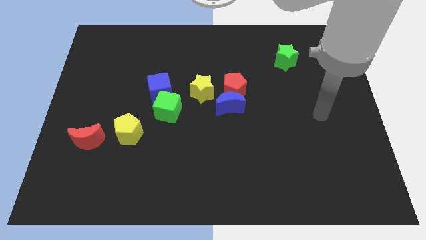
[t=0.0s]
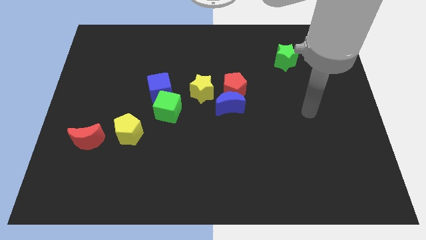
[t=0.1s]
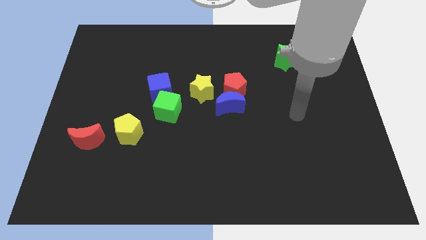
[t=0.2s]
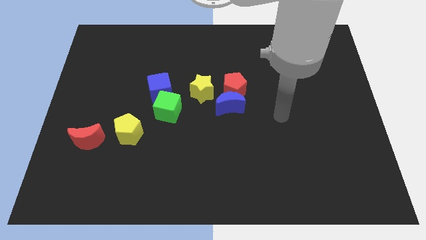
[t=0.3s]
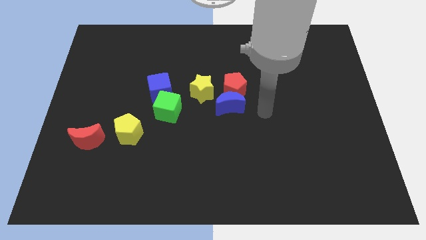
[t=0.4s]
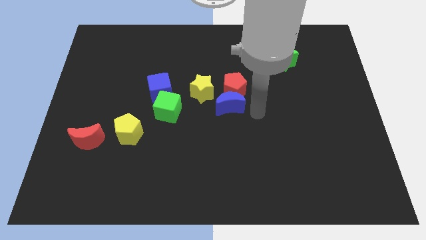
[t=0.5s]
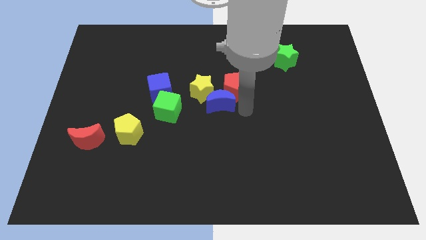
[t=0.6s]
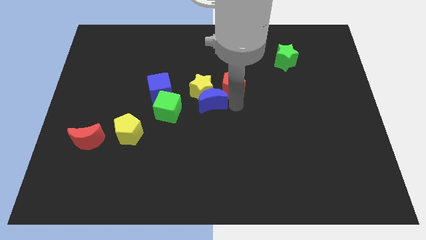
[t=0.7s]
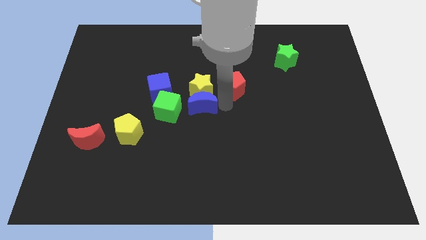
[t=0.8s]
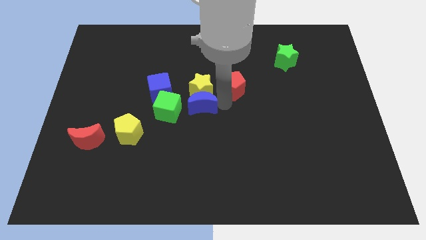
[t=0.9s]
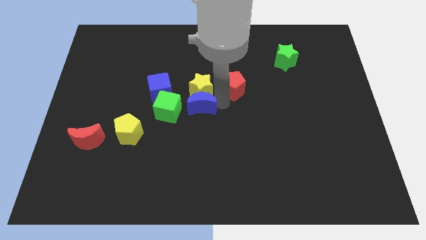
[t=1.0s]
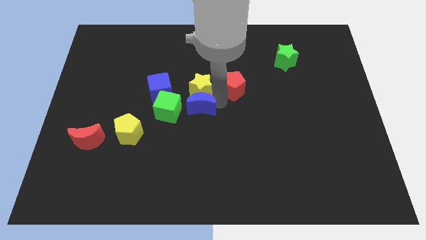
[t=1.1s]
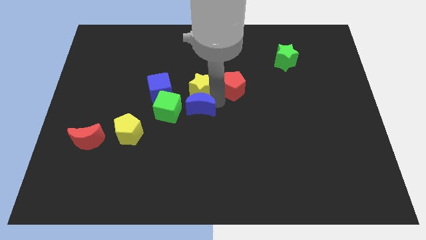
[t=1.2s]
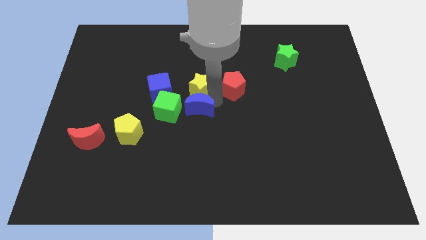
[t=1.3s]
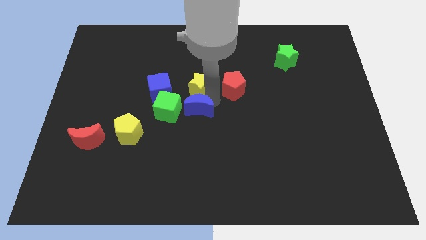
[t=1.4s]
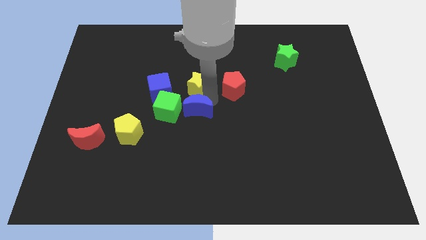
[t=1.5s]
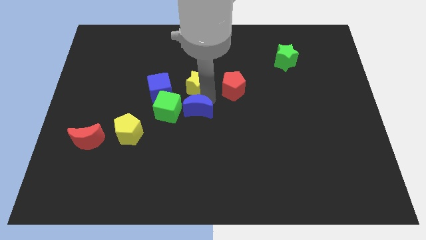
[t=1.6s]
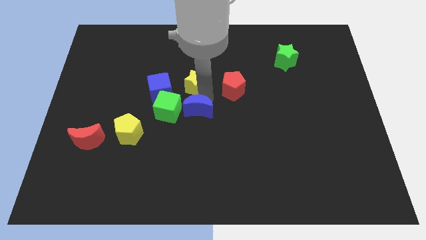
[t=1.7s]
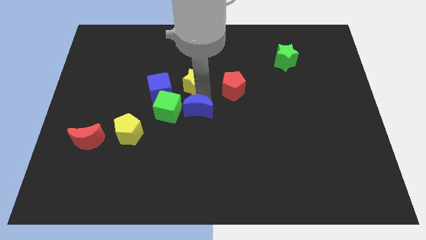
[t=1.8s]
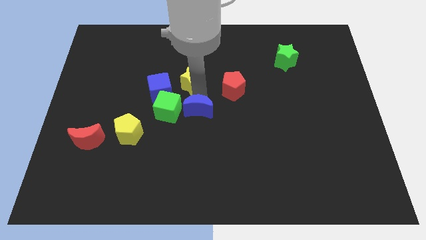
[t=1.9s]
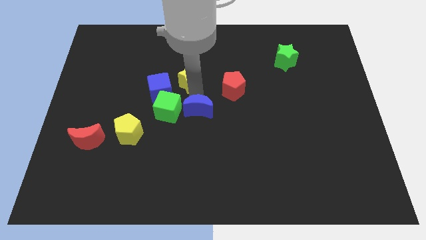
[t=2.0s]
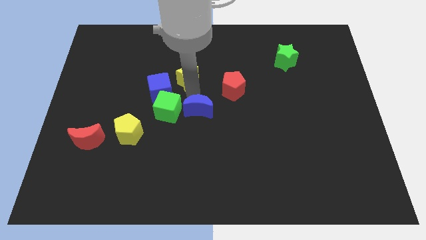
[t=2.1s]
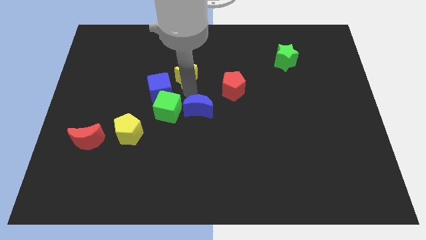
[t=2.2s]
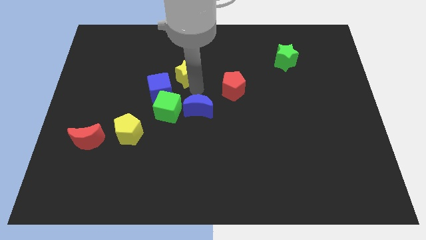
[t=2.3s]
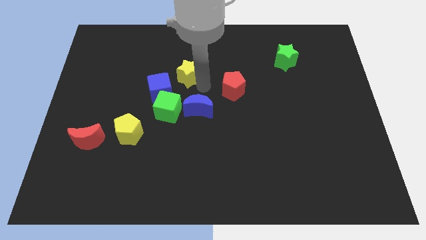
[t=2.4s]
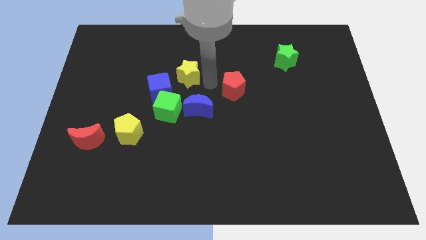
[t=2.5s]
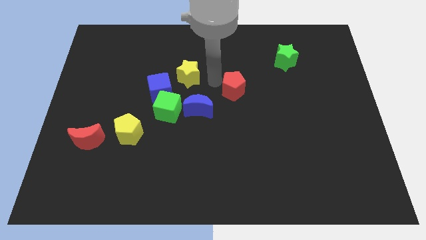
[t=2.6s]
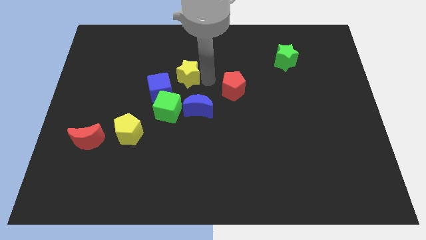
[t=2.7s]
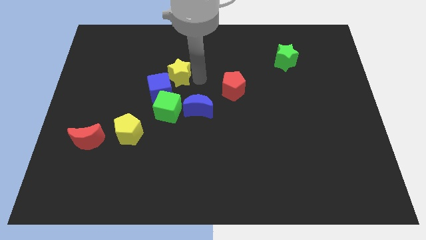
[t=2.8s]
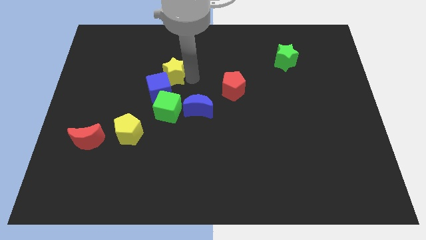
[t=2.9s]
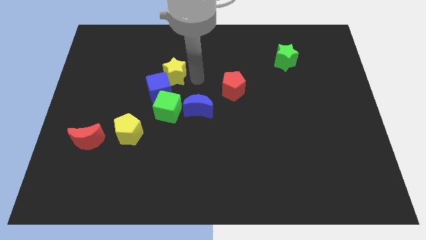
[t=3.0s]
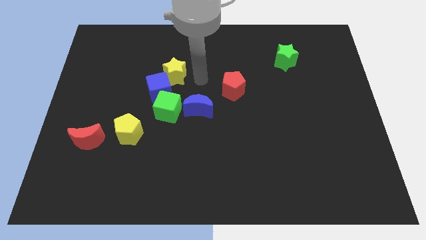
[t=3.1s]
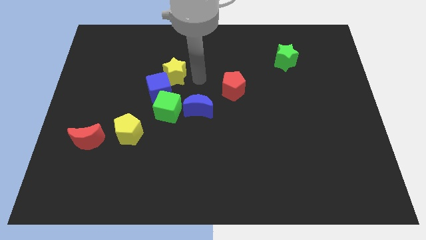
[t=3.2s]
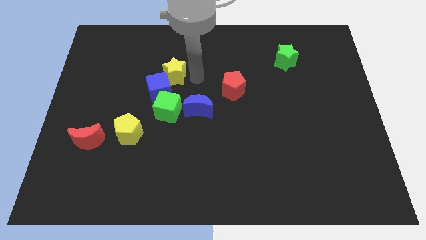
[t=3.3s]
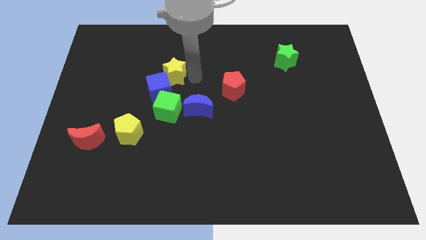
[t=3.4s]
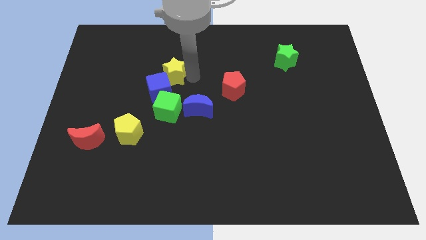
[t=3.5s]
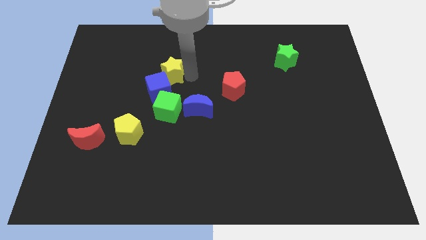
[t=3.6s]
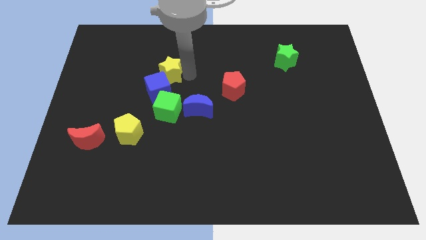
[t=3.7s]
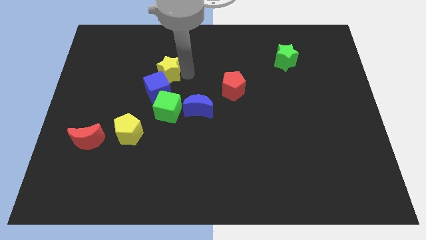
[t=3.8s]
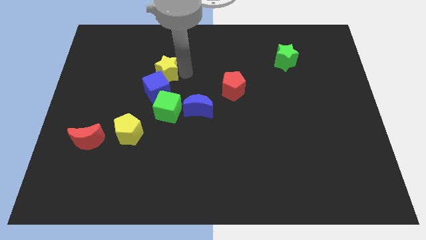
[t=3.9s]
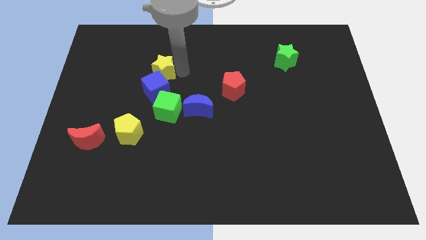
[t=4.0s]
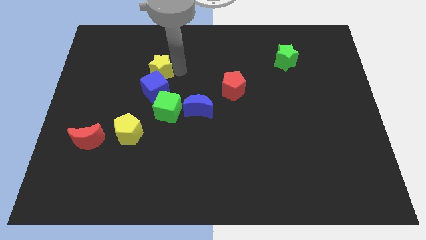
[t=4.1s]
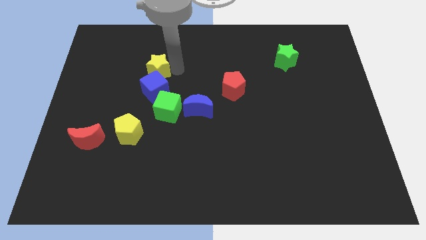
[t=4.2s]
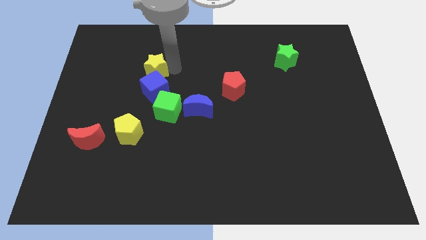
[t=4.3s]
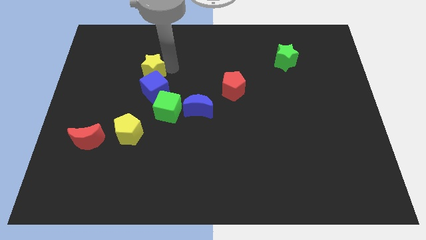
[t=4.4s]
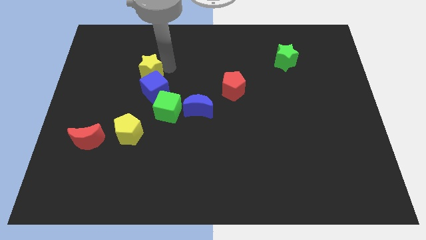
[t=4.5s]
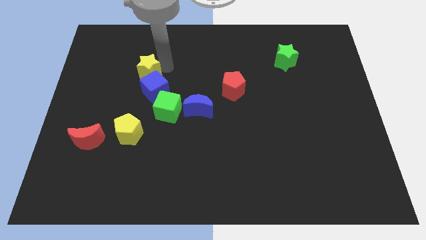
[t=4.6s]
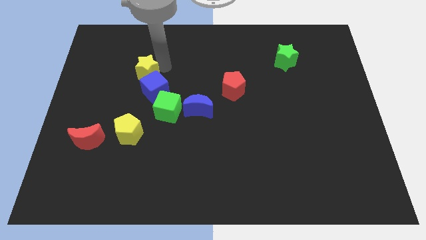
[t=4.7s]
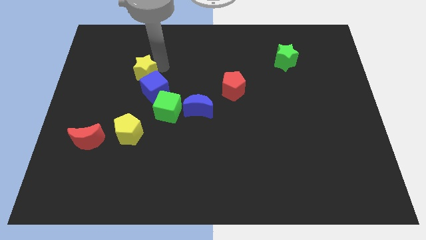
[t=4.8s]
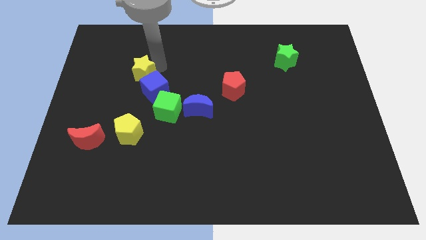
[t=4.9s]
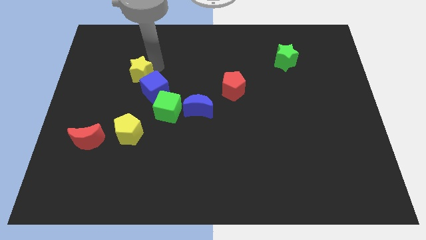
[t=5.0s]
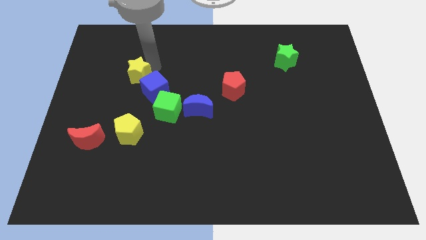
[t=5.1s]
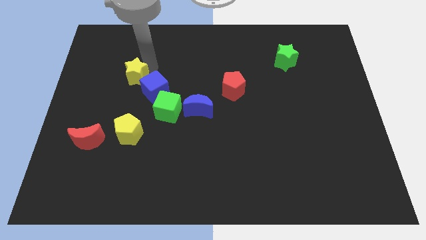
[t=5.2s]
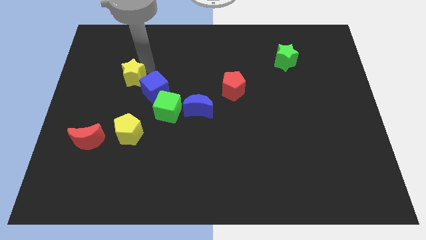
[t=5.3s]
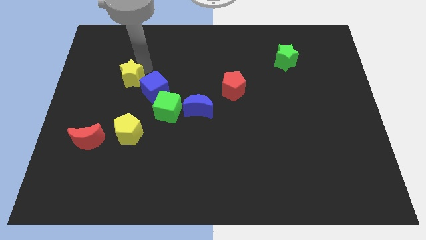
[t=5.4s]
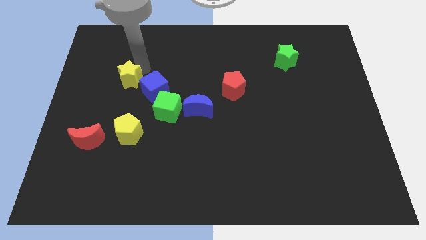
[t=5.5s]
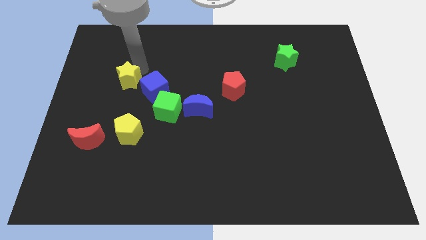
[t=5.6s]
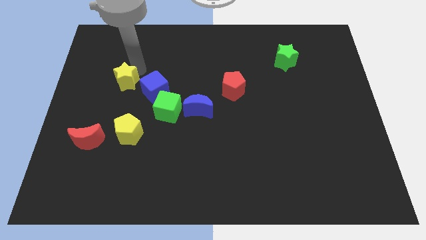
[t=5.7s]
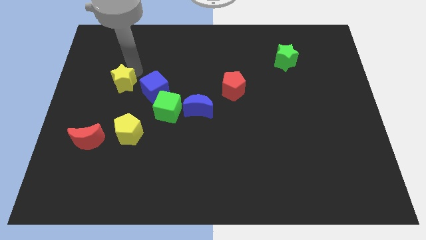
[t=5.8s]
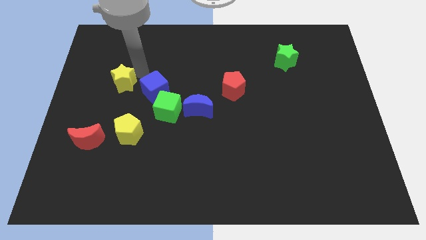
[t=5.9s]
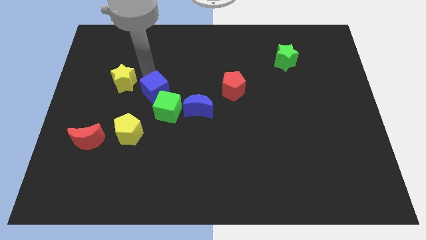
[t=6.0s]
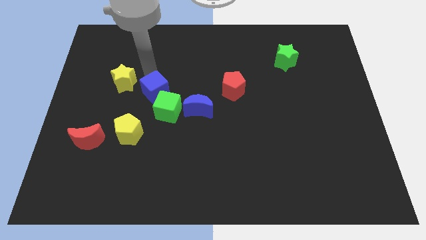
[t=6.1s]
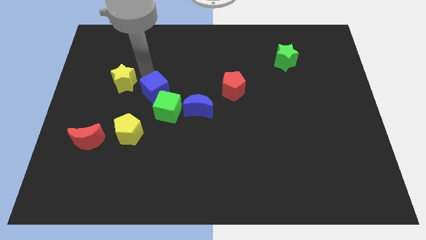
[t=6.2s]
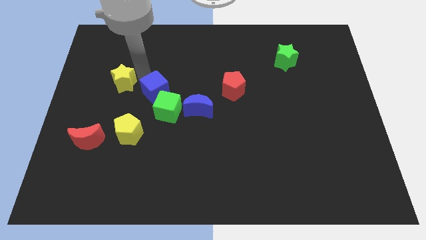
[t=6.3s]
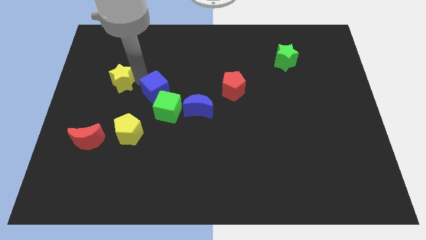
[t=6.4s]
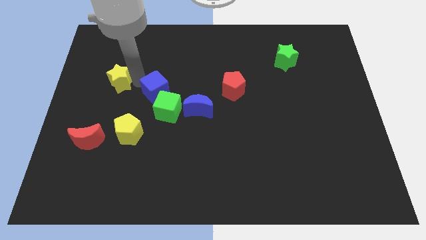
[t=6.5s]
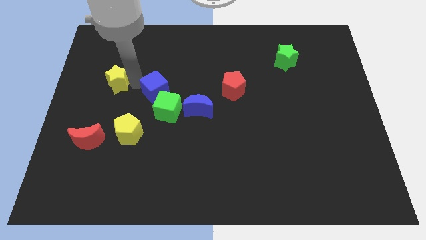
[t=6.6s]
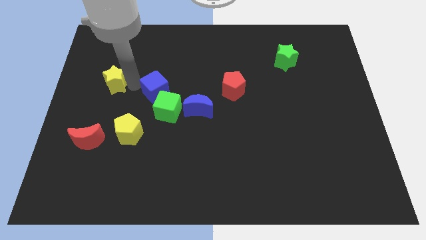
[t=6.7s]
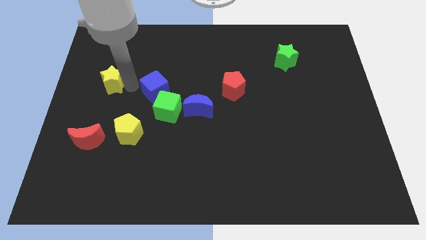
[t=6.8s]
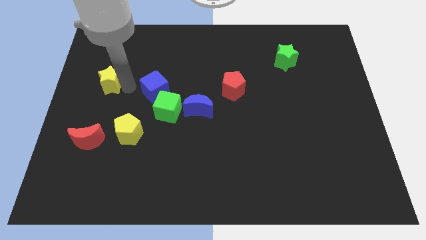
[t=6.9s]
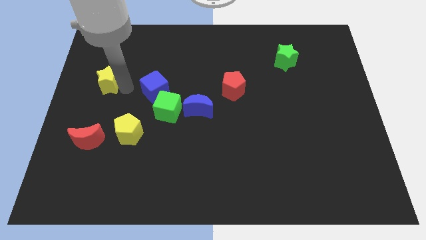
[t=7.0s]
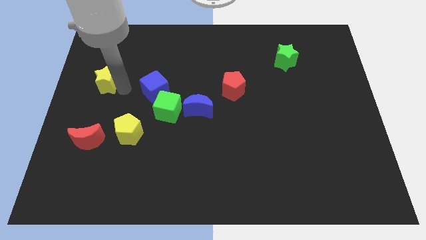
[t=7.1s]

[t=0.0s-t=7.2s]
move the yellow star to the center left
